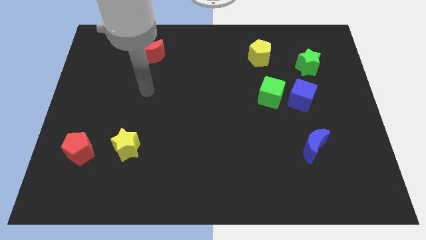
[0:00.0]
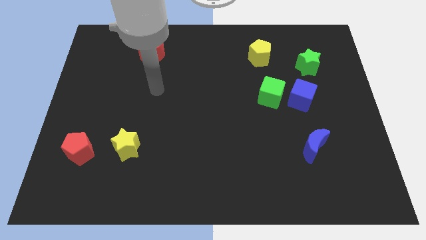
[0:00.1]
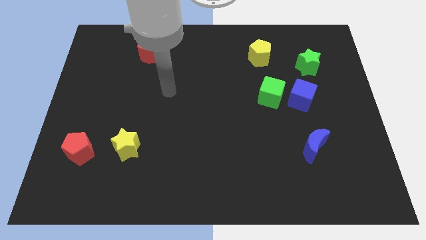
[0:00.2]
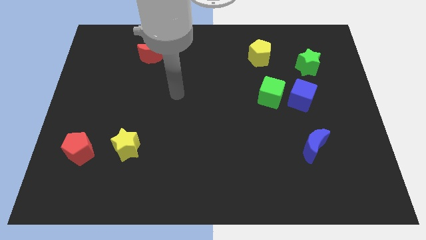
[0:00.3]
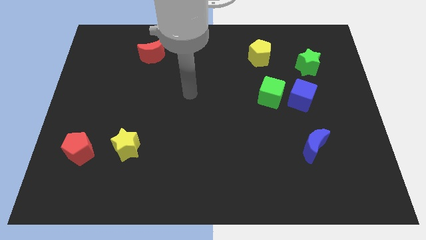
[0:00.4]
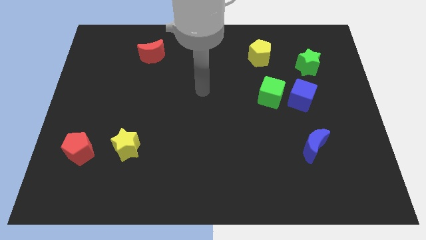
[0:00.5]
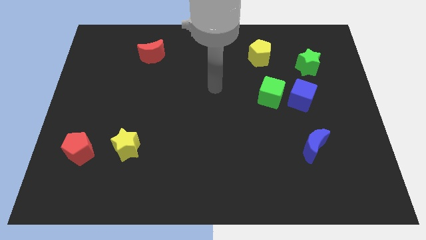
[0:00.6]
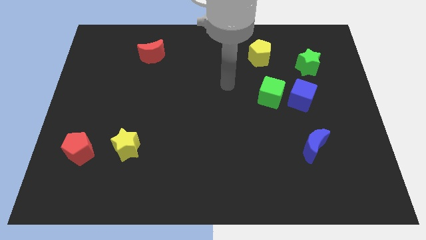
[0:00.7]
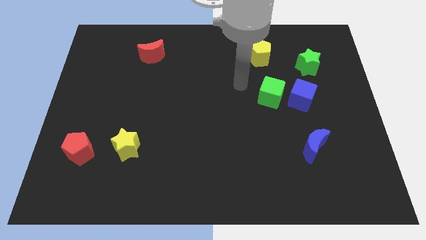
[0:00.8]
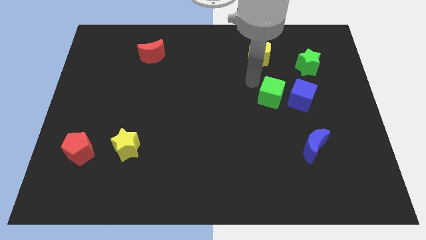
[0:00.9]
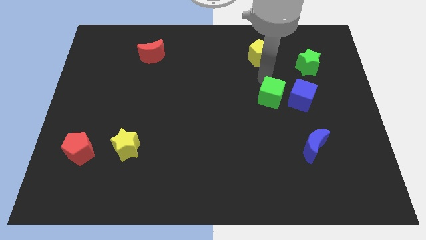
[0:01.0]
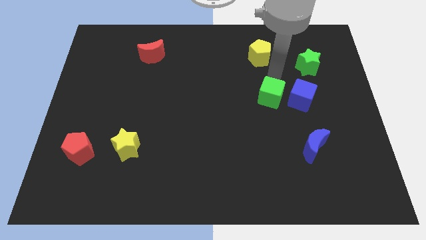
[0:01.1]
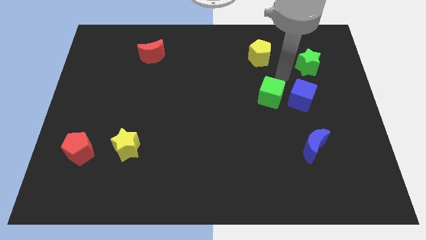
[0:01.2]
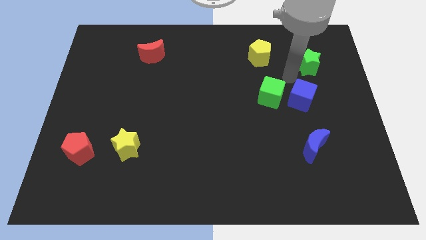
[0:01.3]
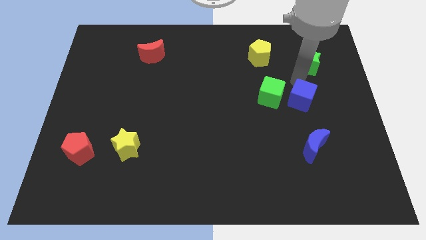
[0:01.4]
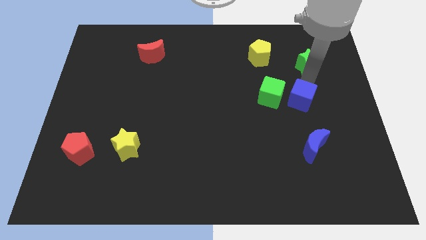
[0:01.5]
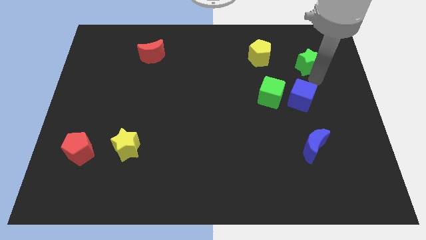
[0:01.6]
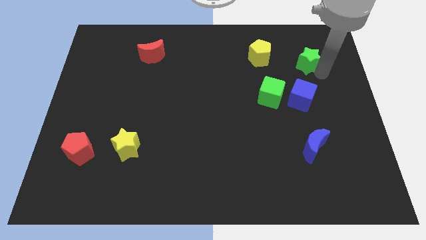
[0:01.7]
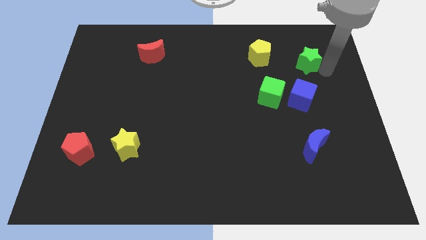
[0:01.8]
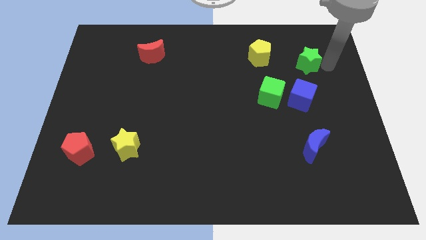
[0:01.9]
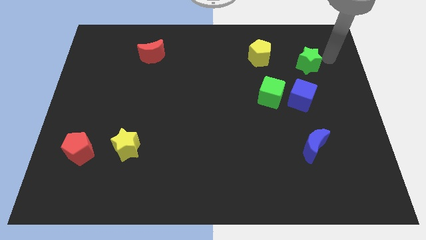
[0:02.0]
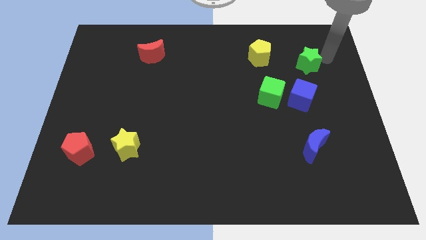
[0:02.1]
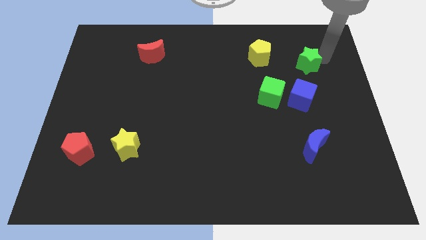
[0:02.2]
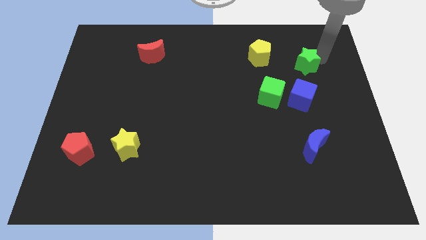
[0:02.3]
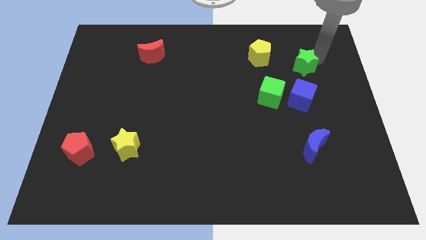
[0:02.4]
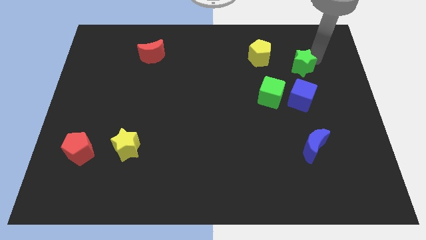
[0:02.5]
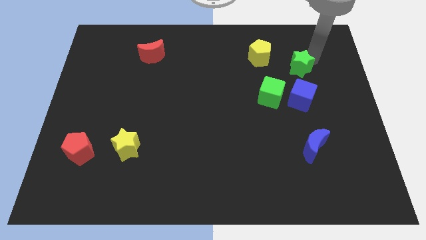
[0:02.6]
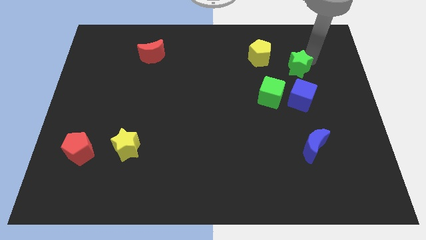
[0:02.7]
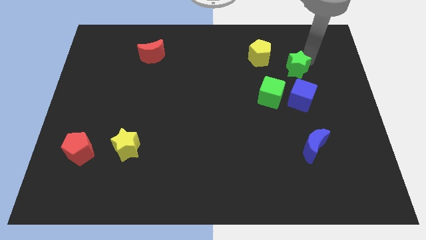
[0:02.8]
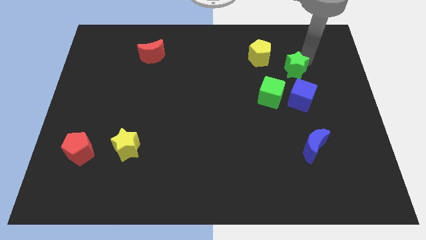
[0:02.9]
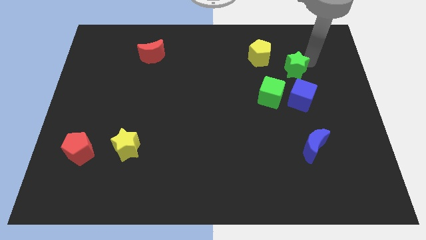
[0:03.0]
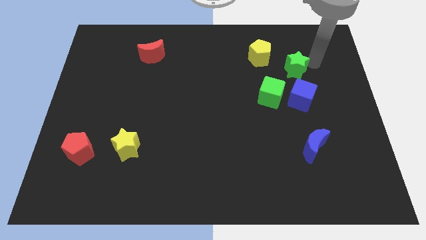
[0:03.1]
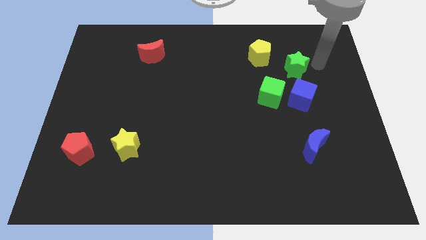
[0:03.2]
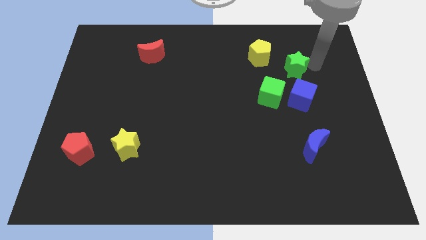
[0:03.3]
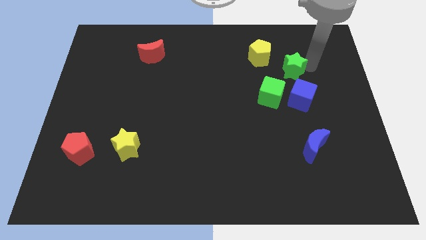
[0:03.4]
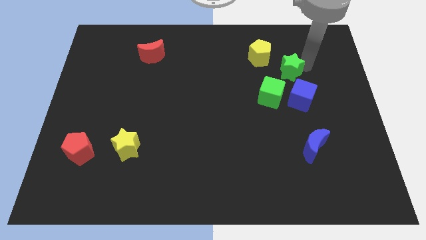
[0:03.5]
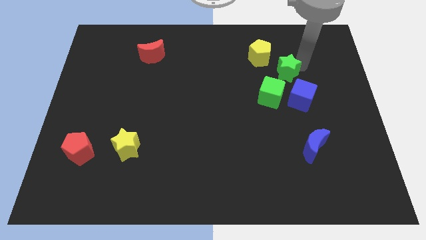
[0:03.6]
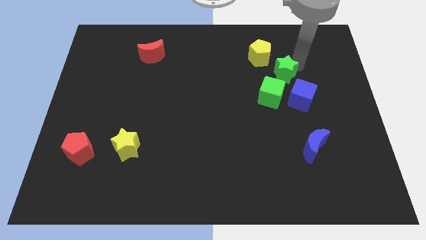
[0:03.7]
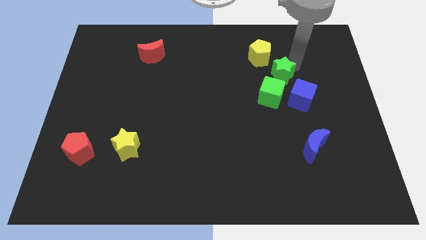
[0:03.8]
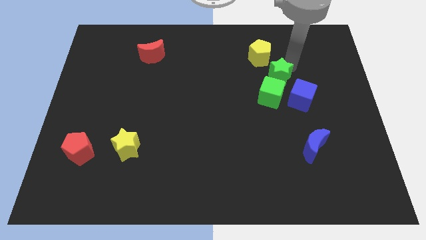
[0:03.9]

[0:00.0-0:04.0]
push the green star diagonally down and to the left a little bit

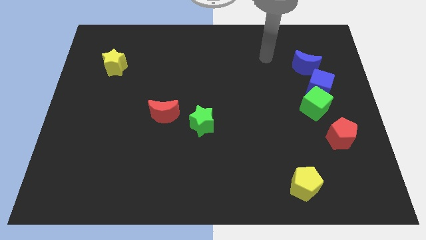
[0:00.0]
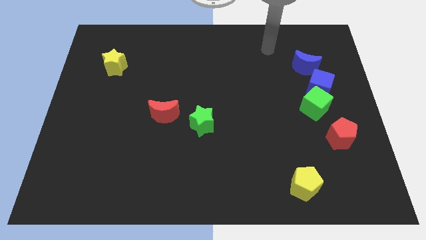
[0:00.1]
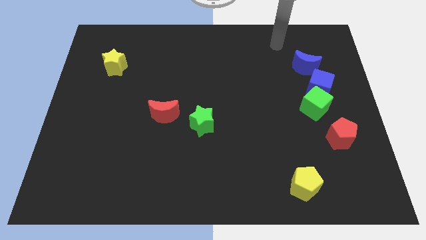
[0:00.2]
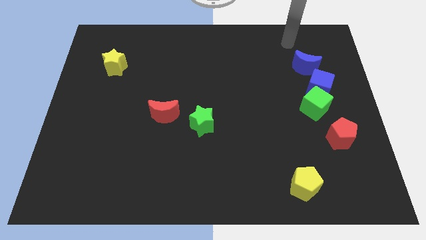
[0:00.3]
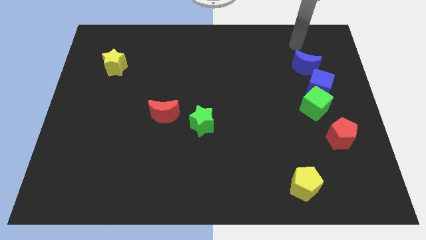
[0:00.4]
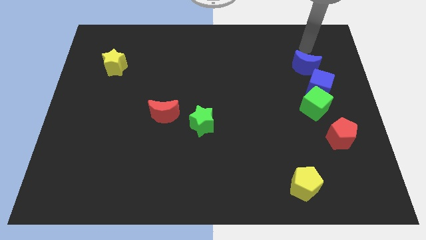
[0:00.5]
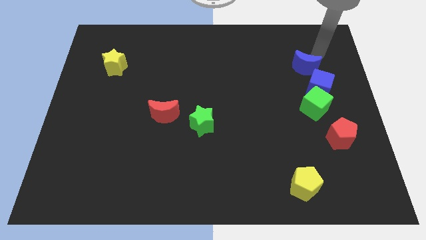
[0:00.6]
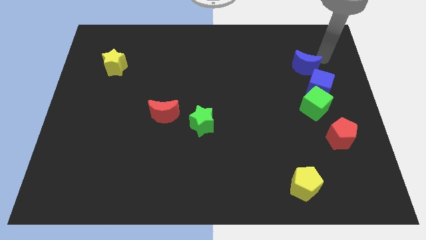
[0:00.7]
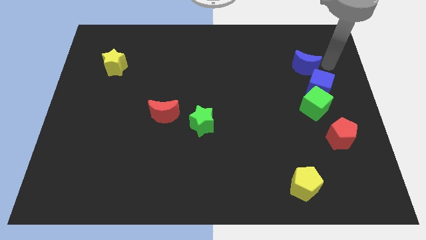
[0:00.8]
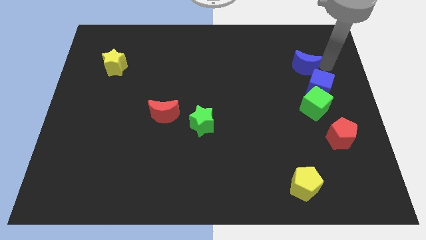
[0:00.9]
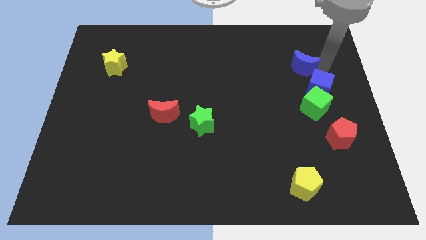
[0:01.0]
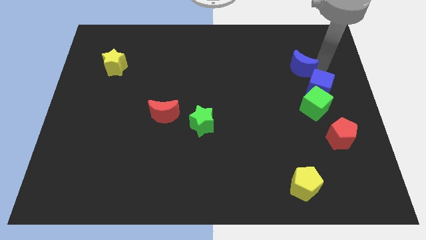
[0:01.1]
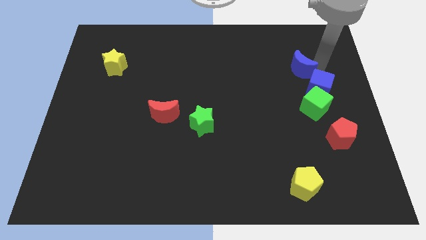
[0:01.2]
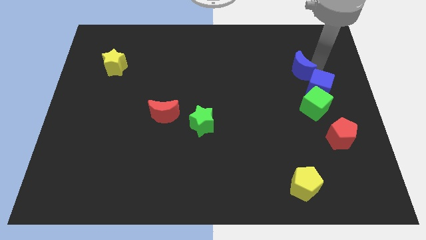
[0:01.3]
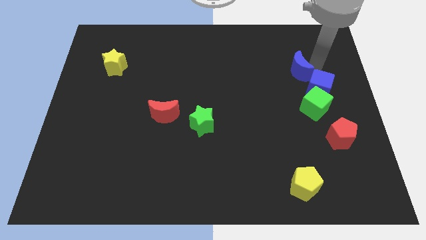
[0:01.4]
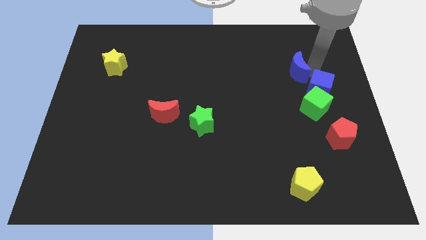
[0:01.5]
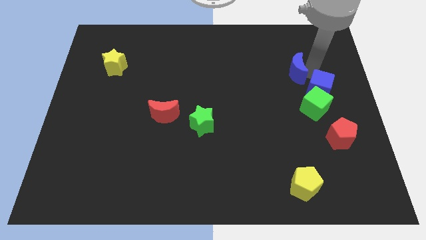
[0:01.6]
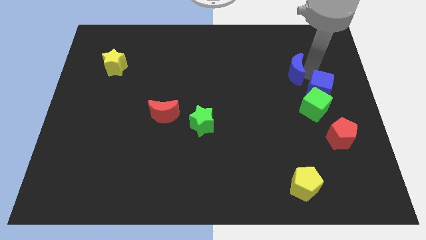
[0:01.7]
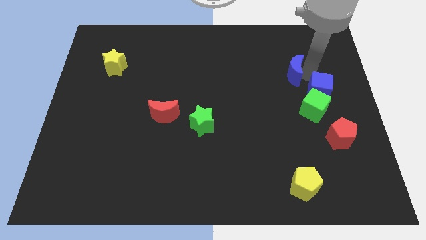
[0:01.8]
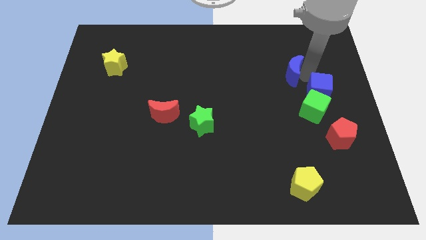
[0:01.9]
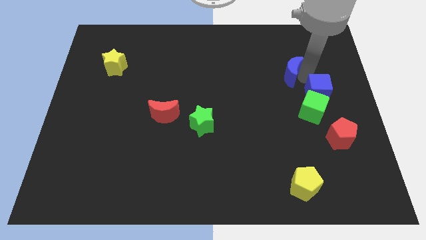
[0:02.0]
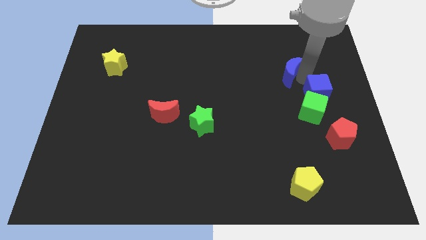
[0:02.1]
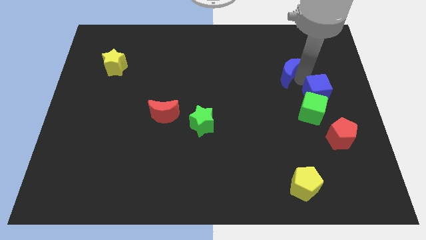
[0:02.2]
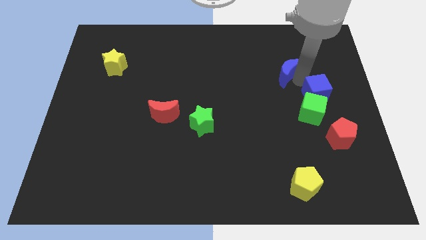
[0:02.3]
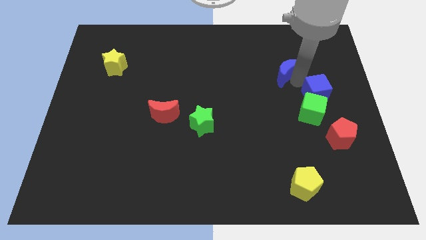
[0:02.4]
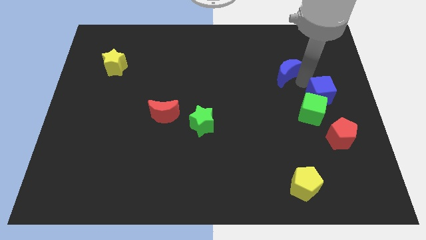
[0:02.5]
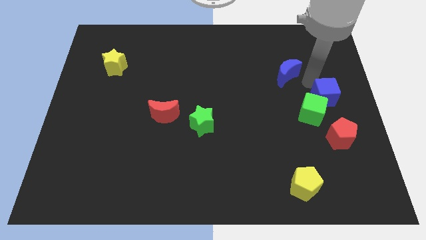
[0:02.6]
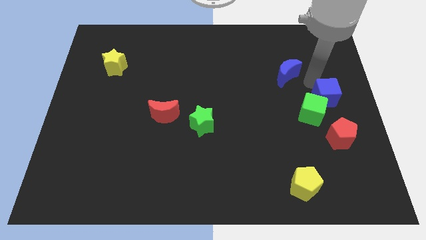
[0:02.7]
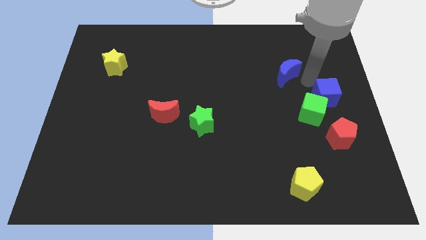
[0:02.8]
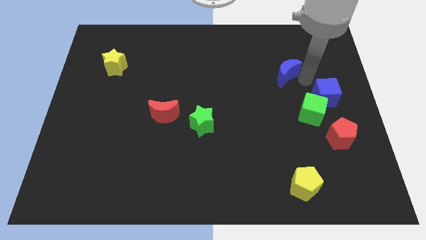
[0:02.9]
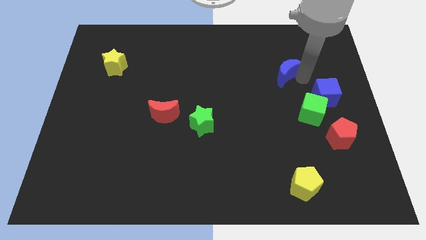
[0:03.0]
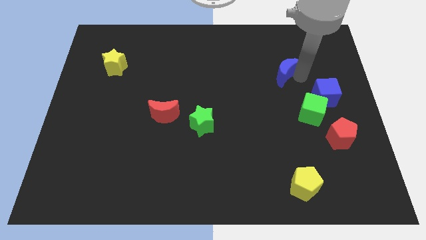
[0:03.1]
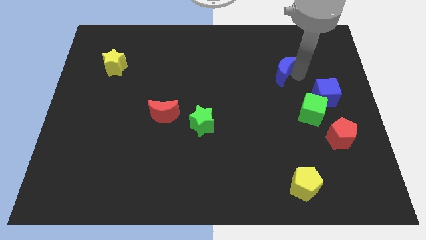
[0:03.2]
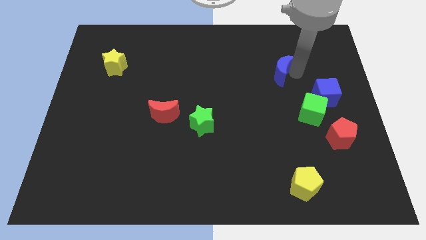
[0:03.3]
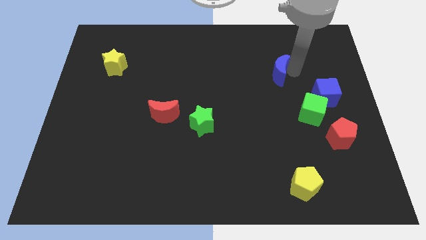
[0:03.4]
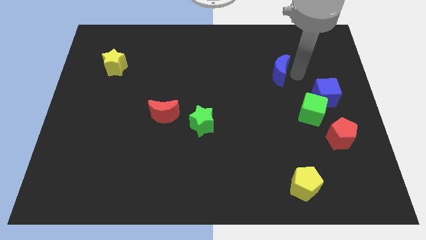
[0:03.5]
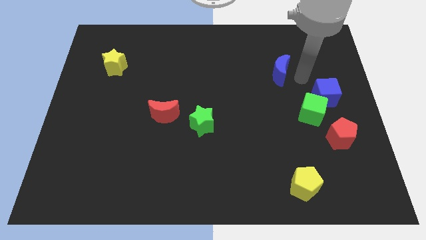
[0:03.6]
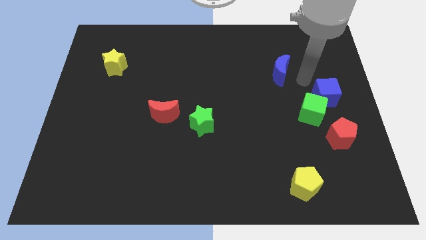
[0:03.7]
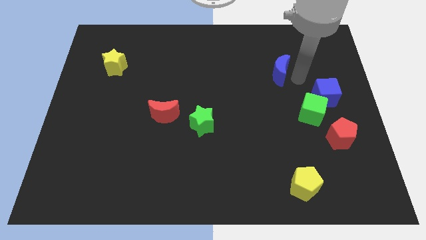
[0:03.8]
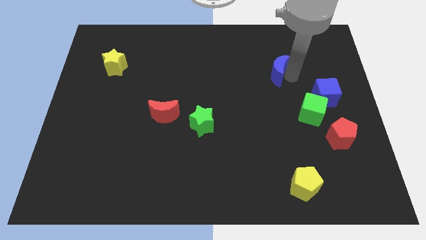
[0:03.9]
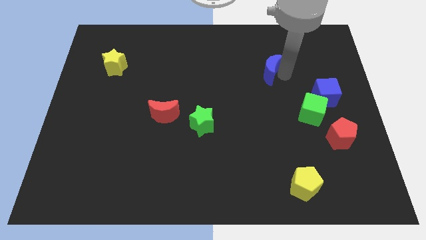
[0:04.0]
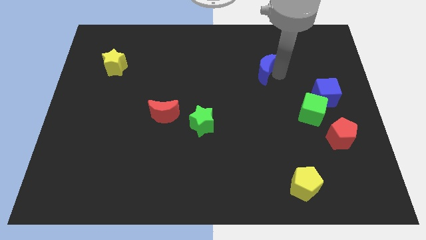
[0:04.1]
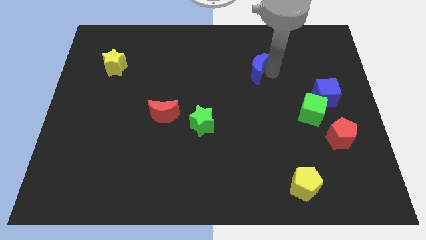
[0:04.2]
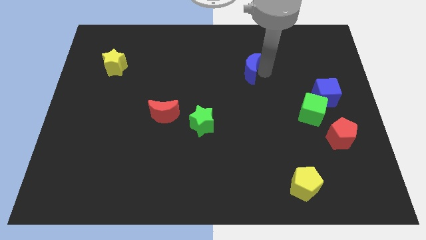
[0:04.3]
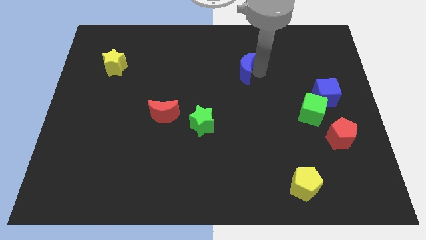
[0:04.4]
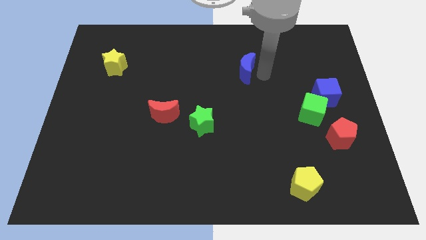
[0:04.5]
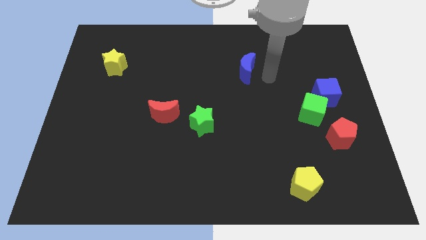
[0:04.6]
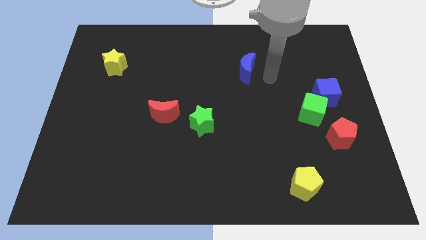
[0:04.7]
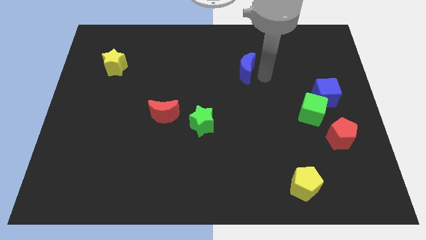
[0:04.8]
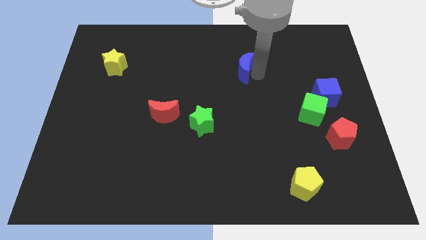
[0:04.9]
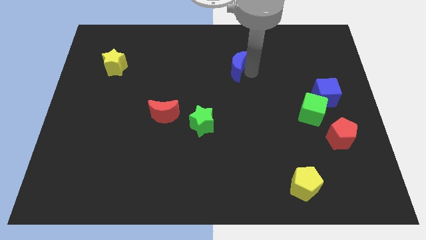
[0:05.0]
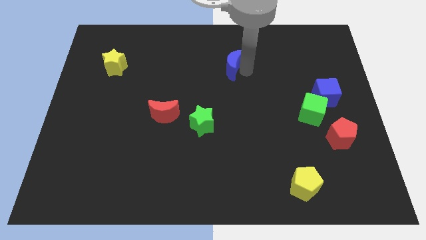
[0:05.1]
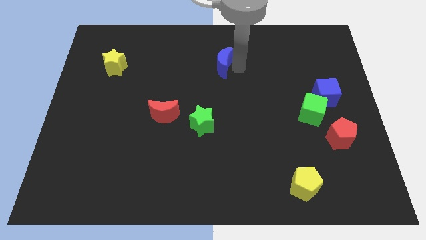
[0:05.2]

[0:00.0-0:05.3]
push the blue moon left
